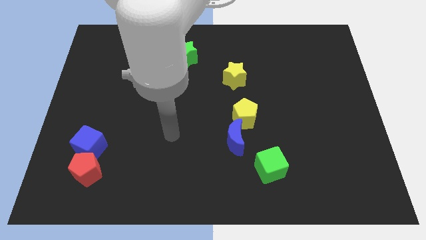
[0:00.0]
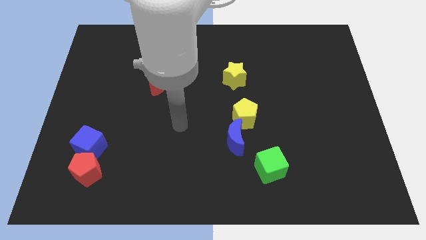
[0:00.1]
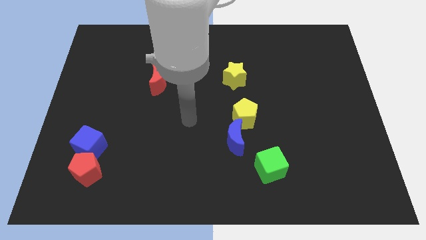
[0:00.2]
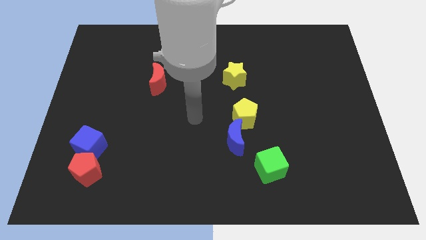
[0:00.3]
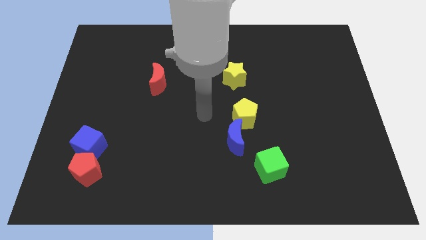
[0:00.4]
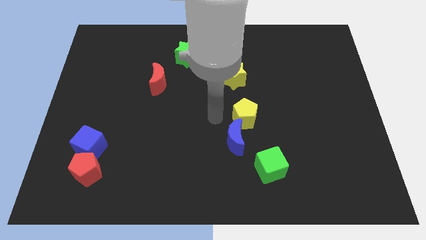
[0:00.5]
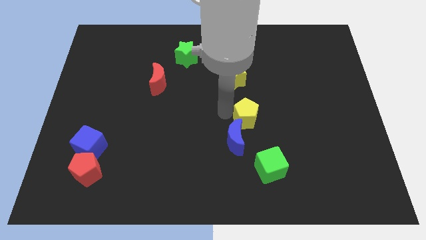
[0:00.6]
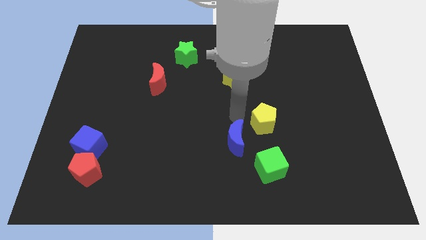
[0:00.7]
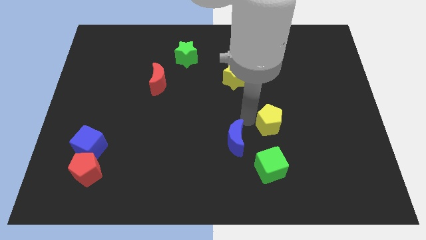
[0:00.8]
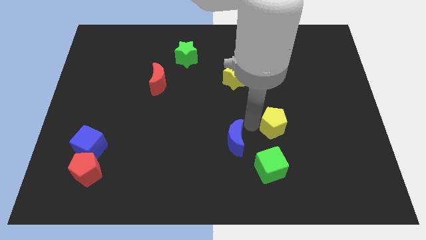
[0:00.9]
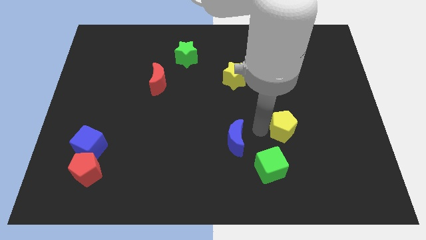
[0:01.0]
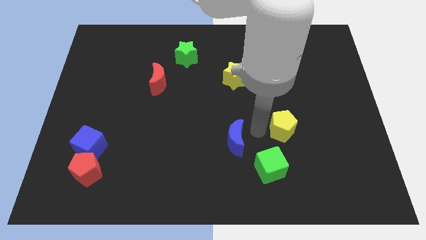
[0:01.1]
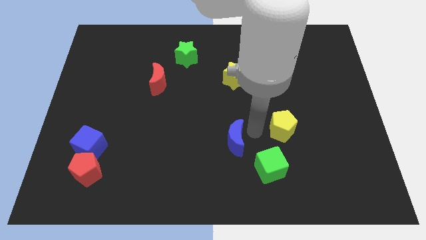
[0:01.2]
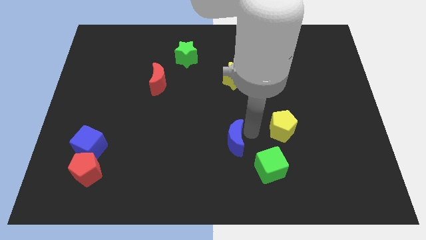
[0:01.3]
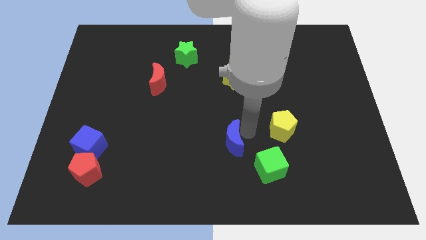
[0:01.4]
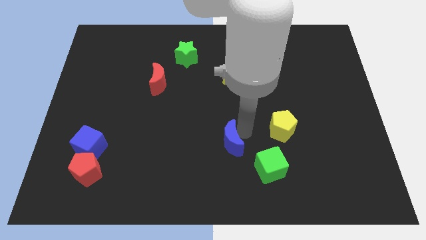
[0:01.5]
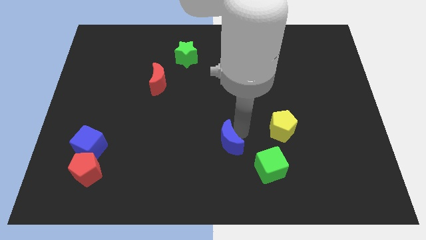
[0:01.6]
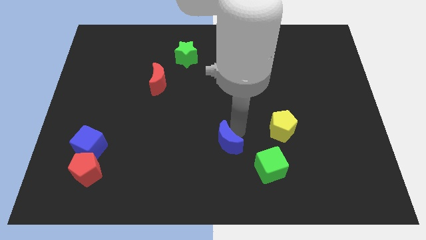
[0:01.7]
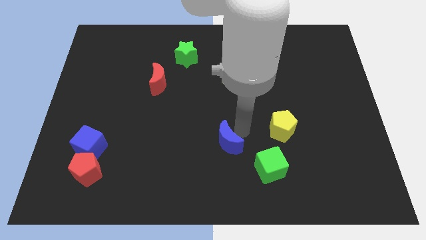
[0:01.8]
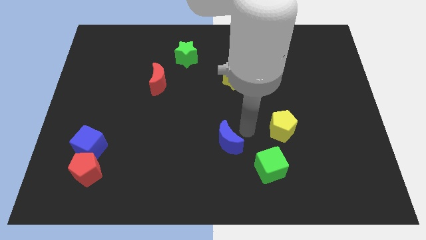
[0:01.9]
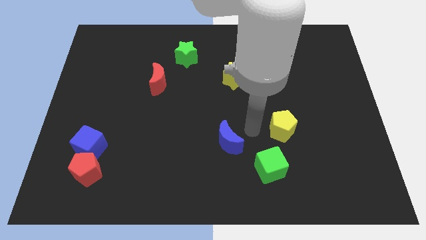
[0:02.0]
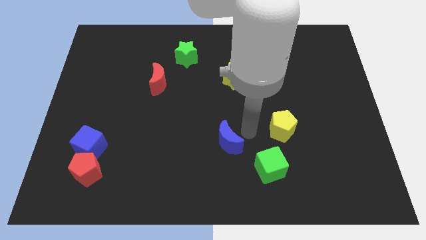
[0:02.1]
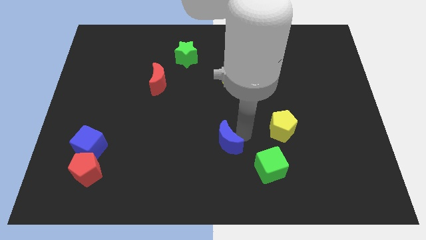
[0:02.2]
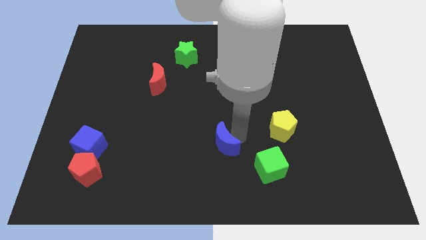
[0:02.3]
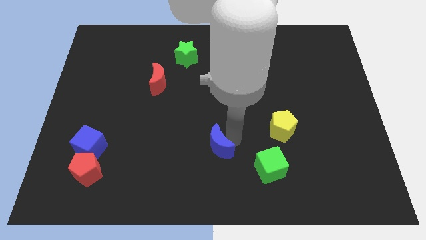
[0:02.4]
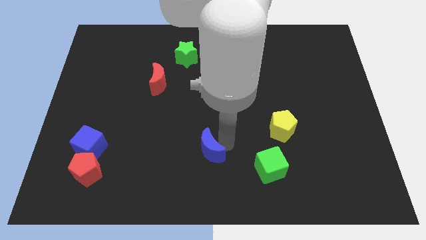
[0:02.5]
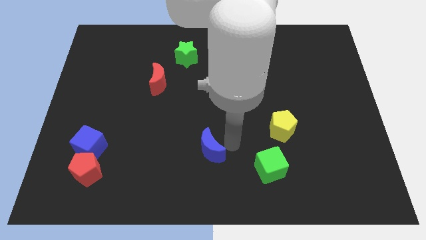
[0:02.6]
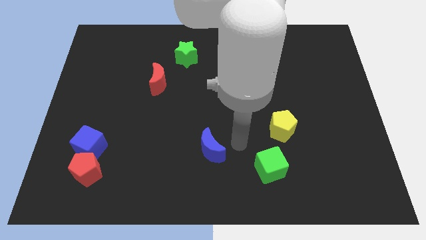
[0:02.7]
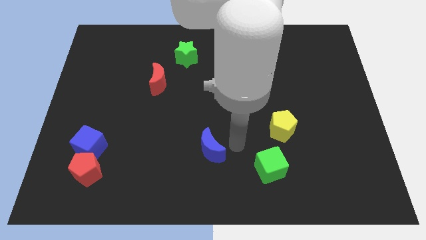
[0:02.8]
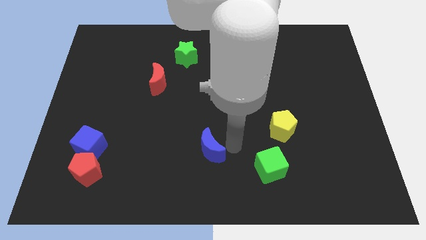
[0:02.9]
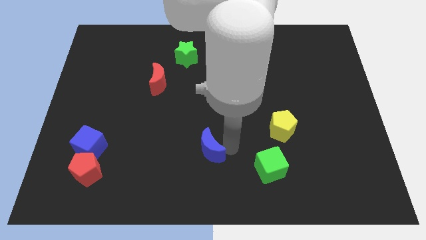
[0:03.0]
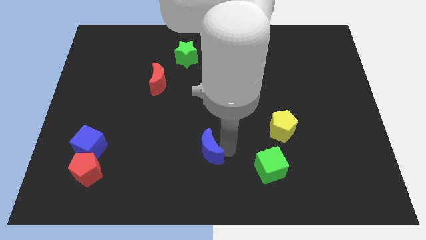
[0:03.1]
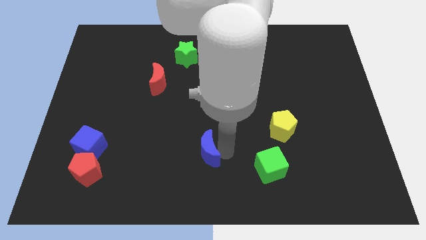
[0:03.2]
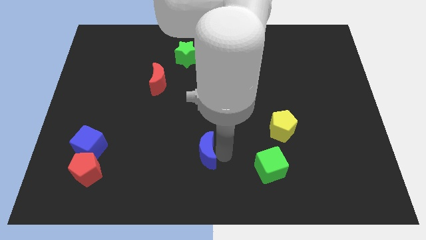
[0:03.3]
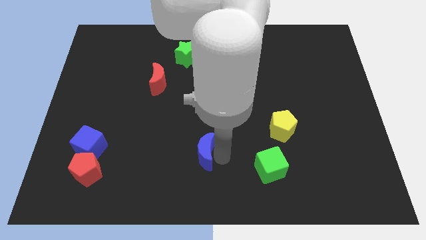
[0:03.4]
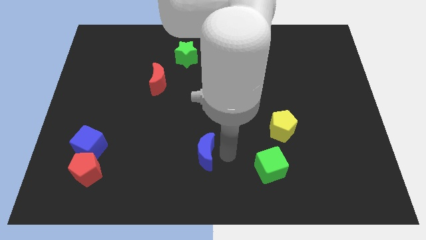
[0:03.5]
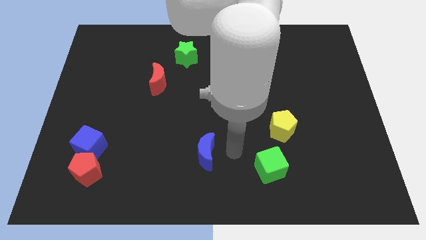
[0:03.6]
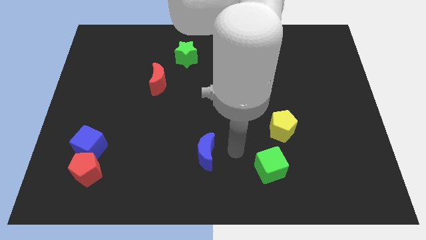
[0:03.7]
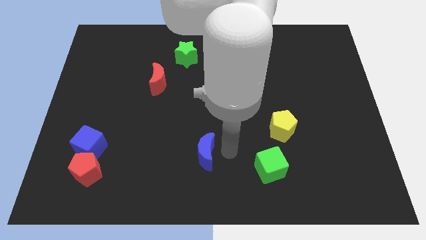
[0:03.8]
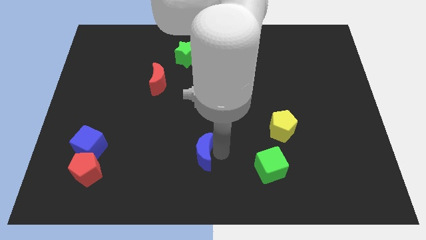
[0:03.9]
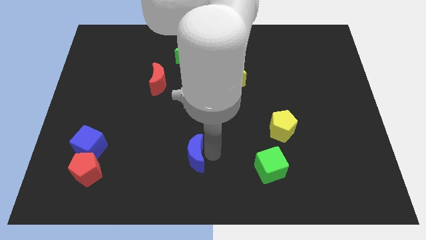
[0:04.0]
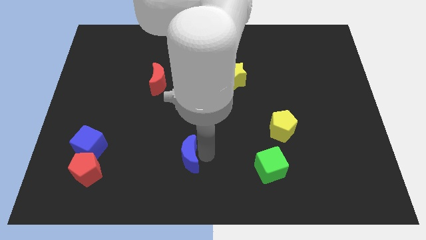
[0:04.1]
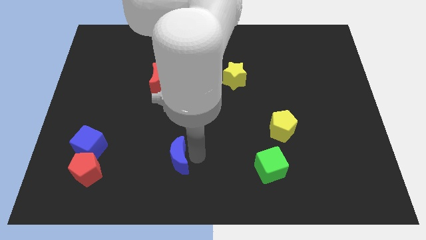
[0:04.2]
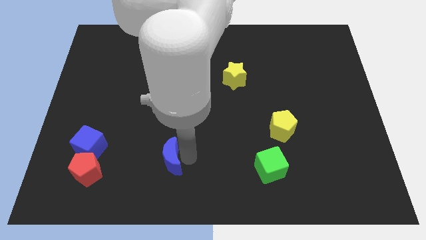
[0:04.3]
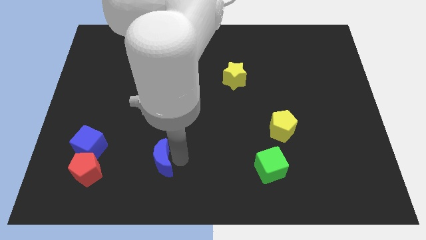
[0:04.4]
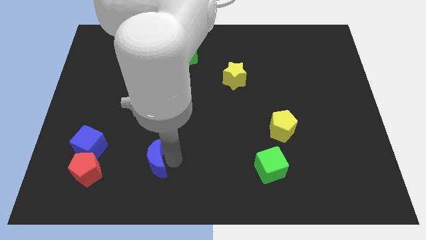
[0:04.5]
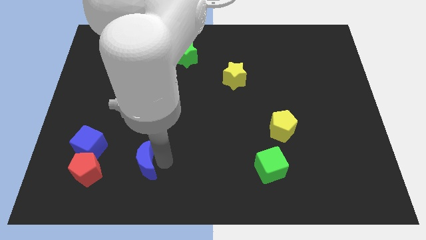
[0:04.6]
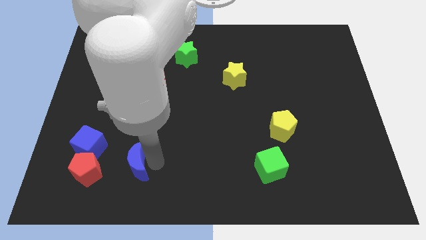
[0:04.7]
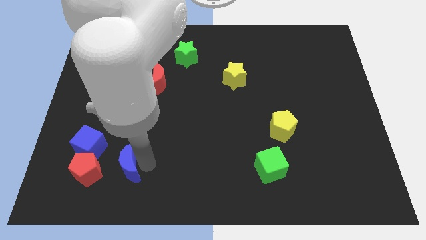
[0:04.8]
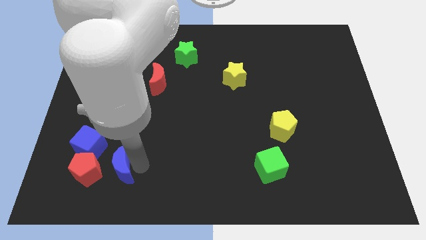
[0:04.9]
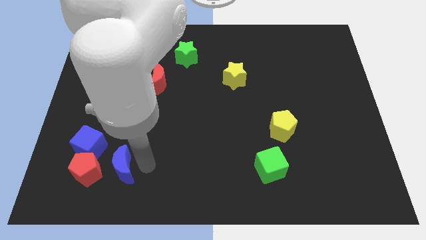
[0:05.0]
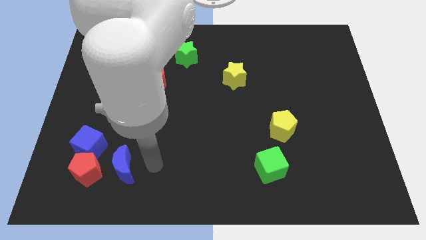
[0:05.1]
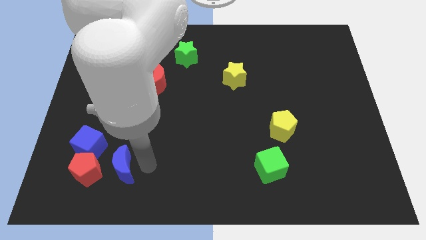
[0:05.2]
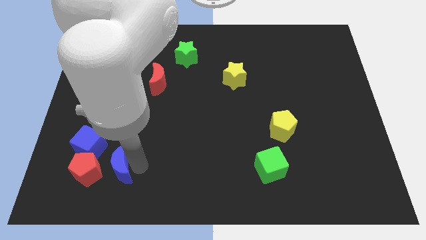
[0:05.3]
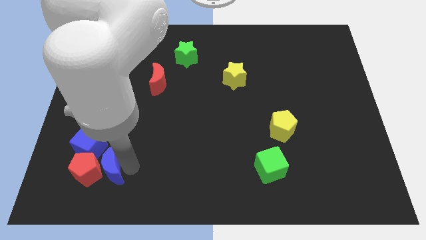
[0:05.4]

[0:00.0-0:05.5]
put the blue moon next to the red pentagon

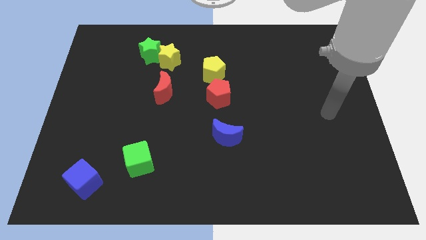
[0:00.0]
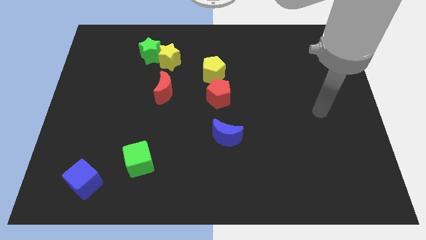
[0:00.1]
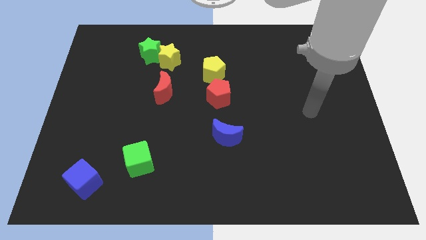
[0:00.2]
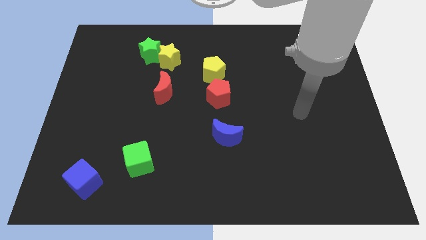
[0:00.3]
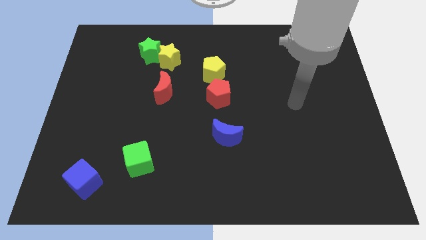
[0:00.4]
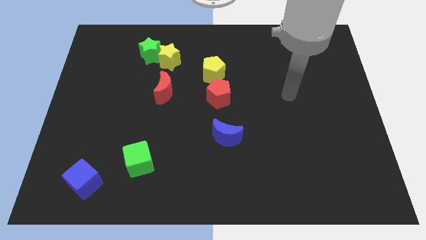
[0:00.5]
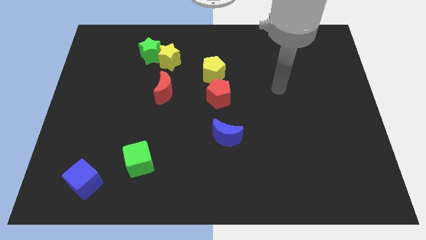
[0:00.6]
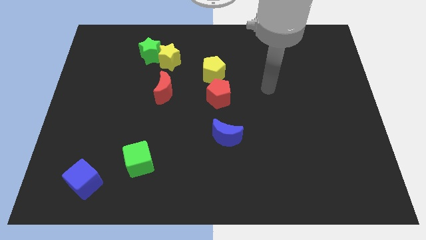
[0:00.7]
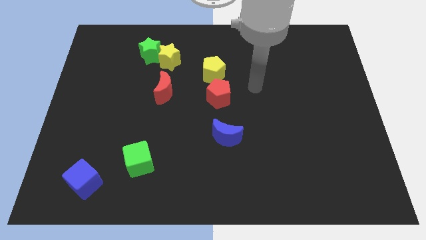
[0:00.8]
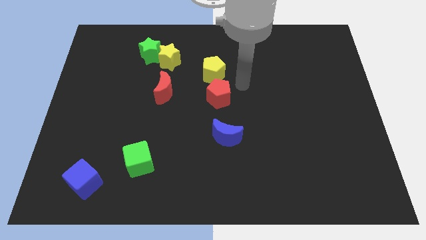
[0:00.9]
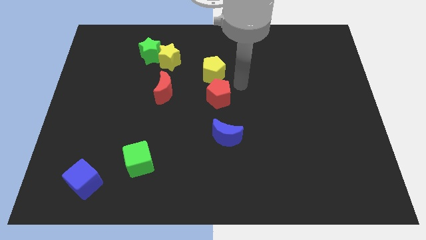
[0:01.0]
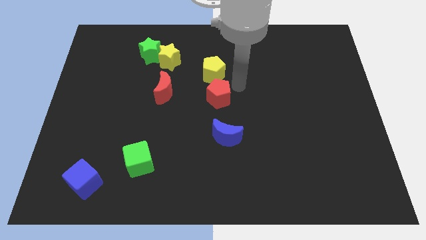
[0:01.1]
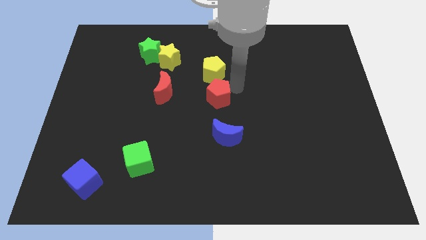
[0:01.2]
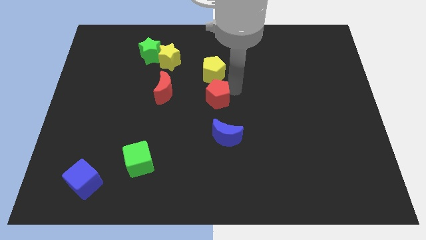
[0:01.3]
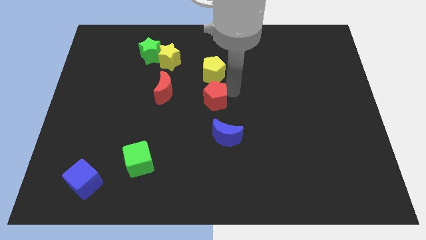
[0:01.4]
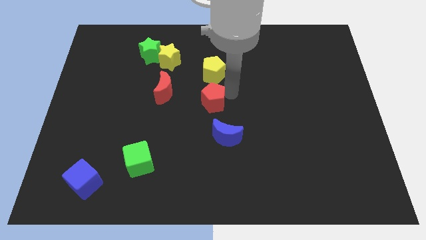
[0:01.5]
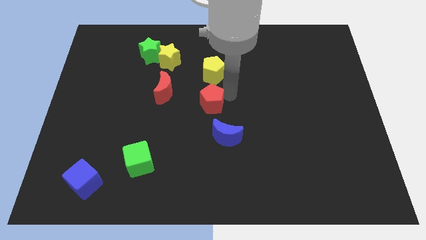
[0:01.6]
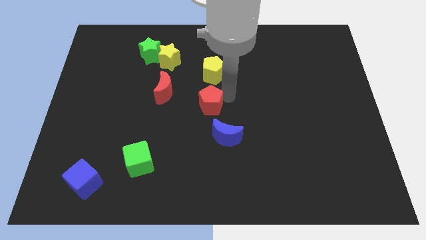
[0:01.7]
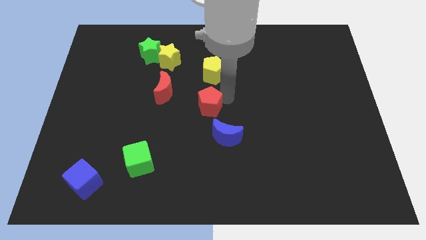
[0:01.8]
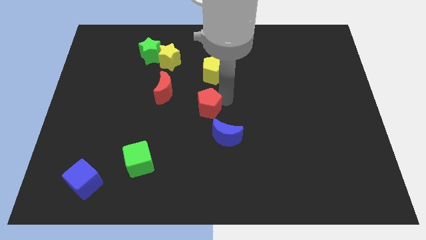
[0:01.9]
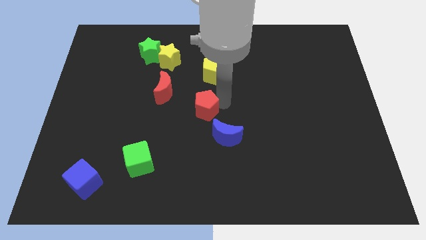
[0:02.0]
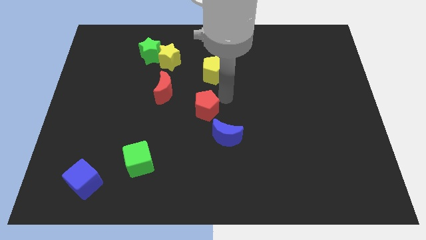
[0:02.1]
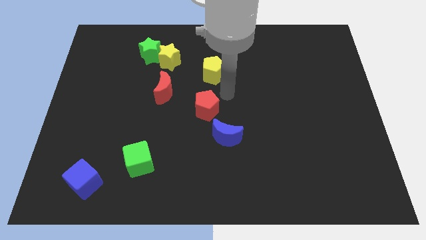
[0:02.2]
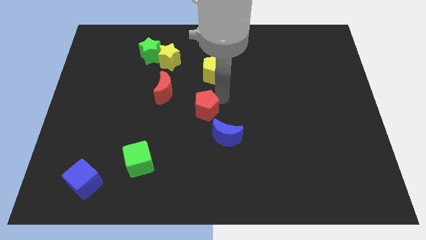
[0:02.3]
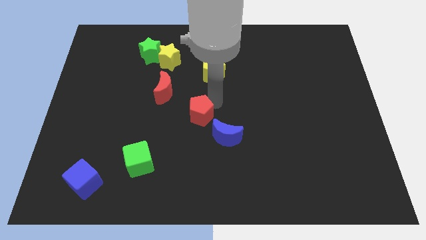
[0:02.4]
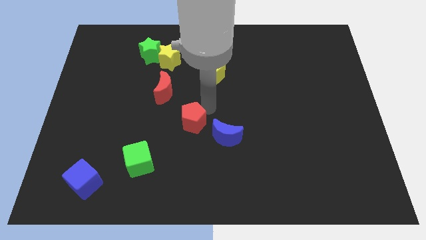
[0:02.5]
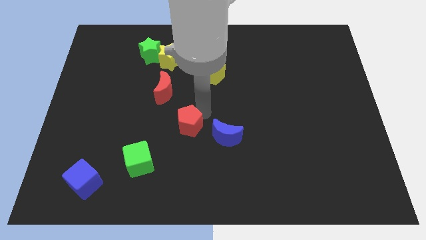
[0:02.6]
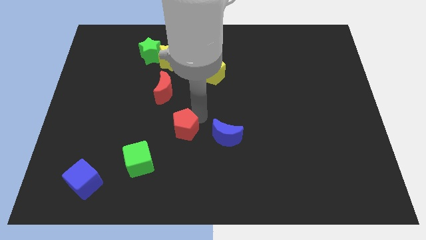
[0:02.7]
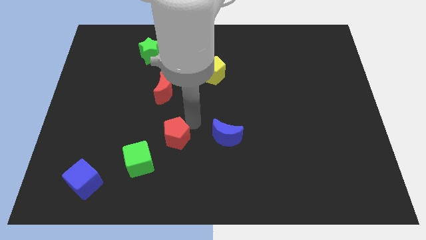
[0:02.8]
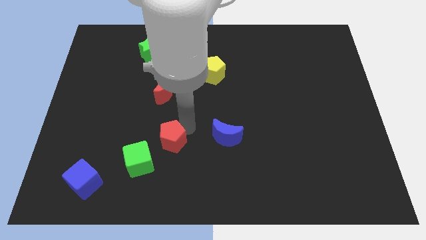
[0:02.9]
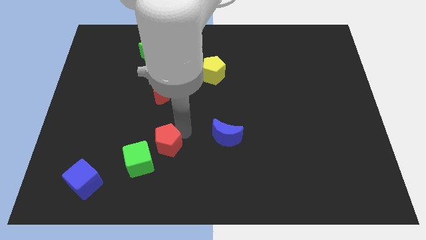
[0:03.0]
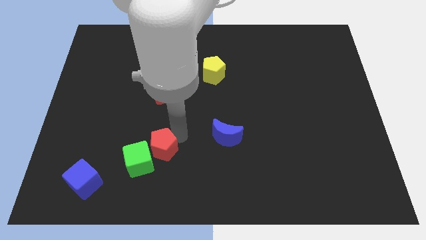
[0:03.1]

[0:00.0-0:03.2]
push the red pentagon close to the green cube
